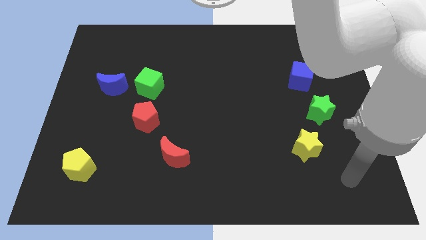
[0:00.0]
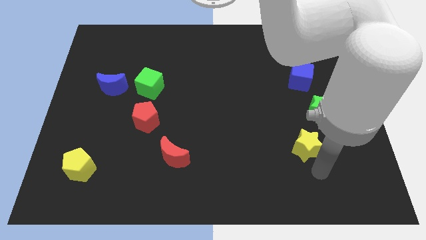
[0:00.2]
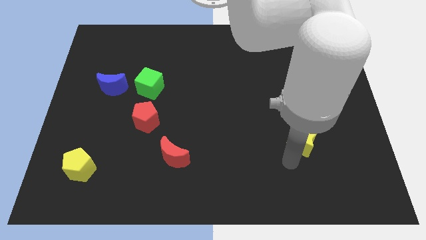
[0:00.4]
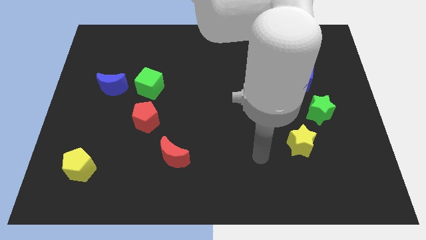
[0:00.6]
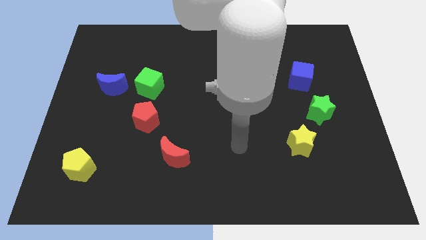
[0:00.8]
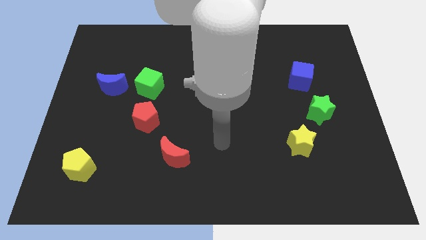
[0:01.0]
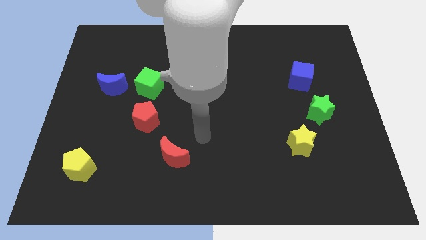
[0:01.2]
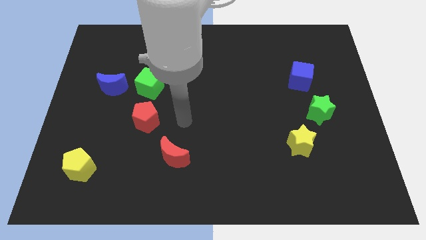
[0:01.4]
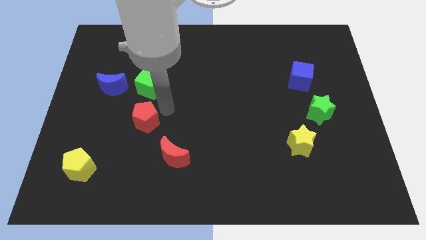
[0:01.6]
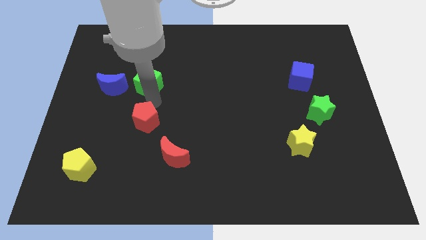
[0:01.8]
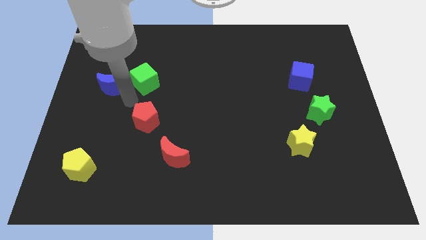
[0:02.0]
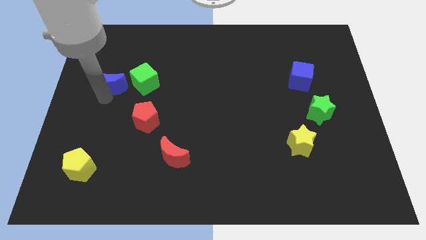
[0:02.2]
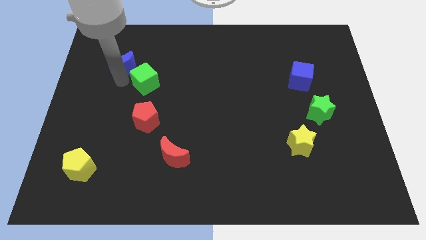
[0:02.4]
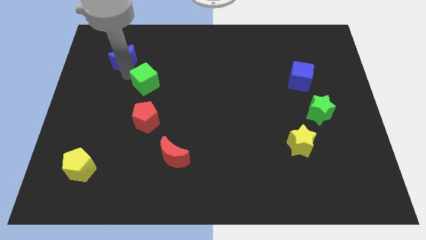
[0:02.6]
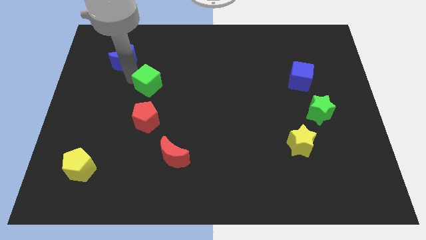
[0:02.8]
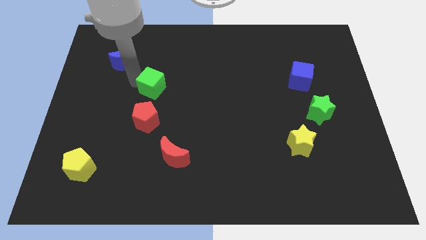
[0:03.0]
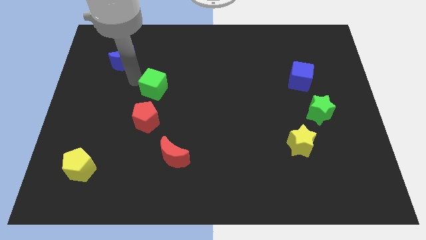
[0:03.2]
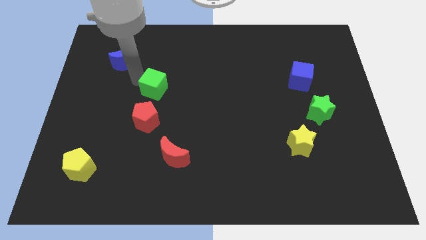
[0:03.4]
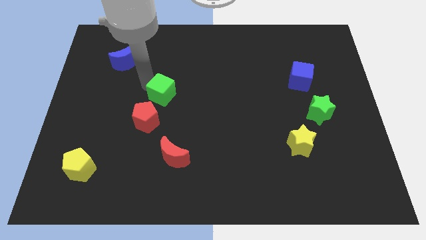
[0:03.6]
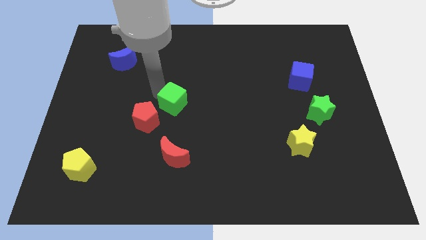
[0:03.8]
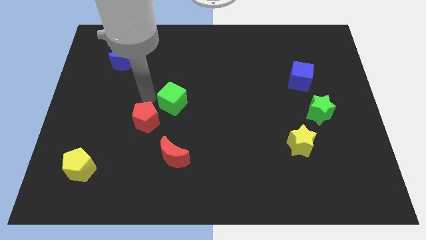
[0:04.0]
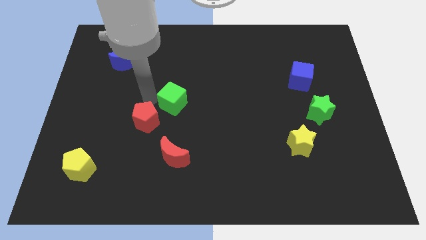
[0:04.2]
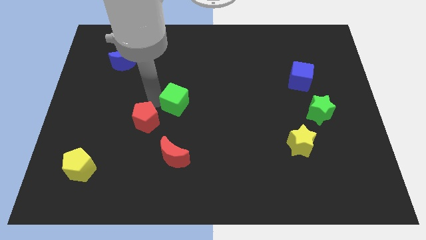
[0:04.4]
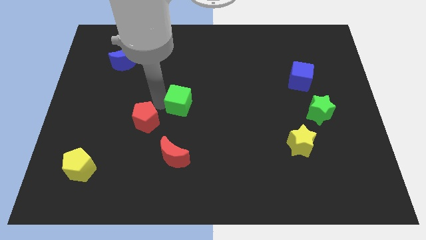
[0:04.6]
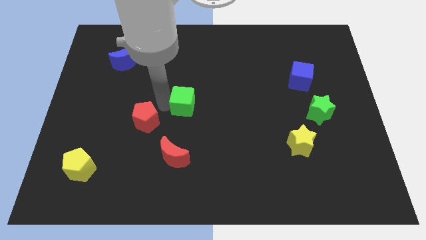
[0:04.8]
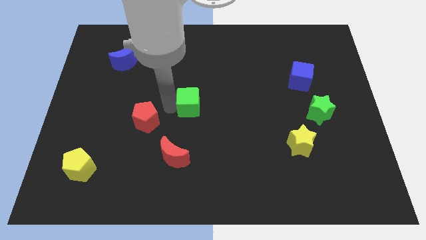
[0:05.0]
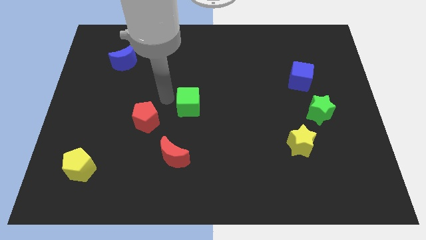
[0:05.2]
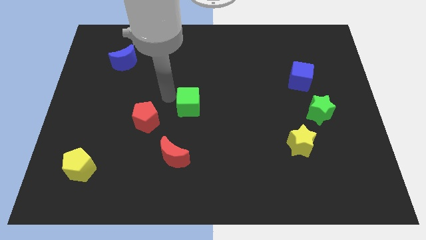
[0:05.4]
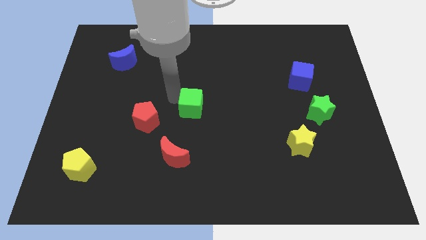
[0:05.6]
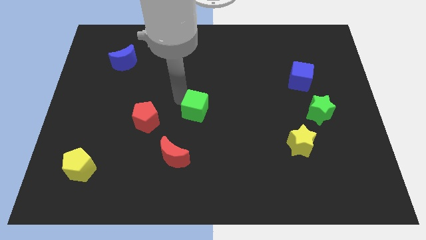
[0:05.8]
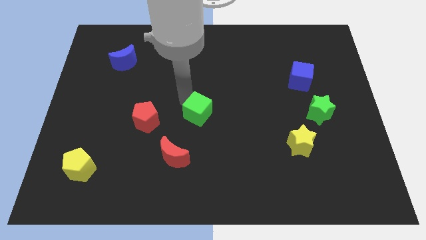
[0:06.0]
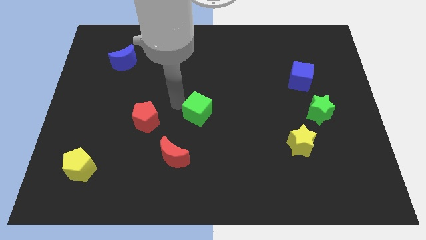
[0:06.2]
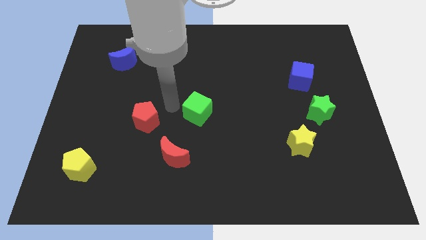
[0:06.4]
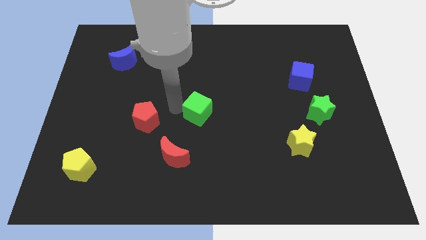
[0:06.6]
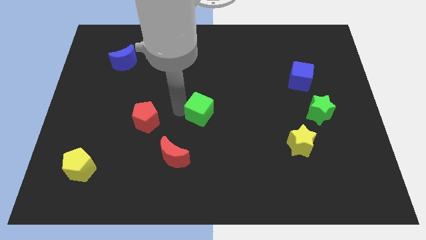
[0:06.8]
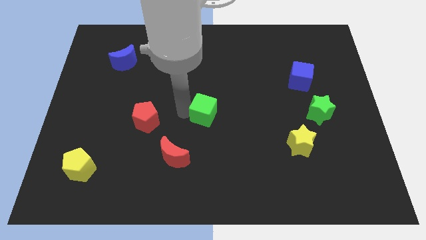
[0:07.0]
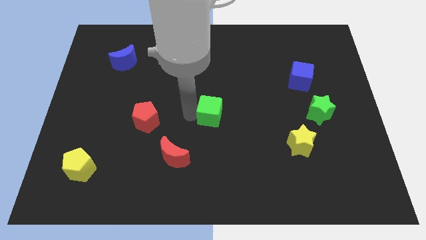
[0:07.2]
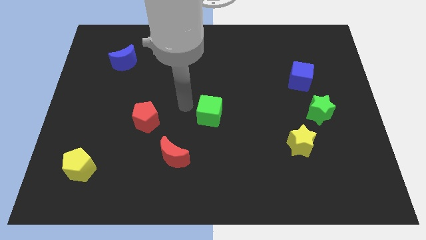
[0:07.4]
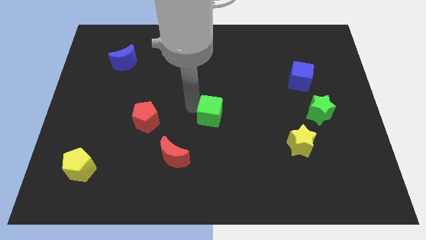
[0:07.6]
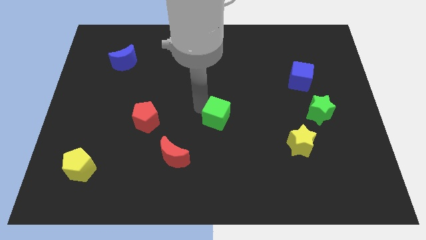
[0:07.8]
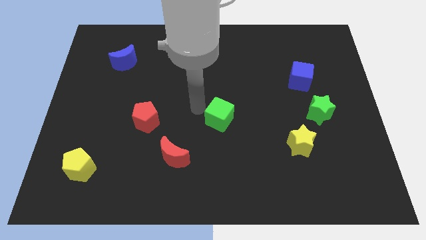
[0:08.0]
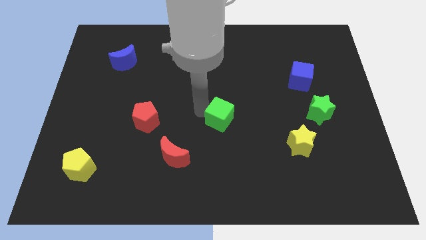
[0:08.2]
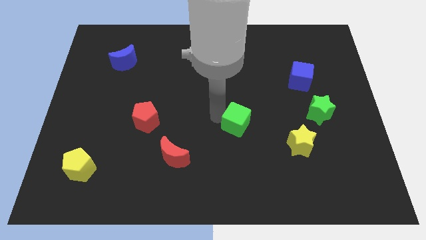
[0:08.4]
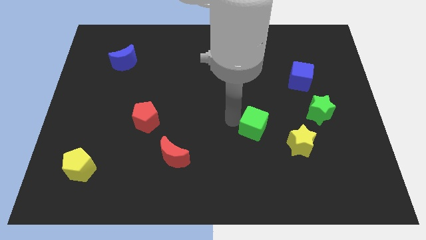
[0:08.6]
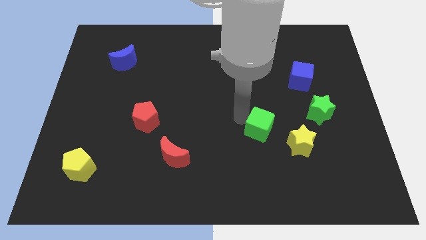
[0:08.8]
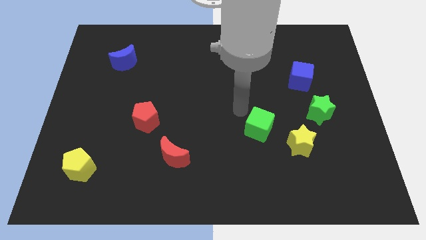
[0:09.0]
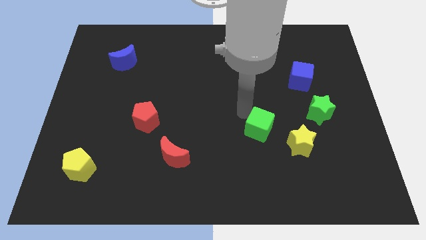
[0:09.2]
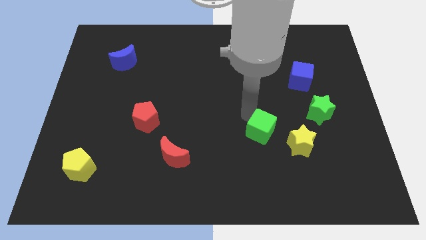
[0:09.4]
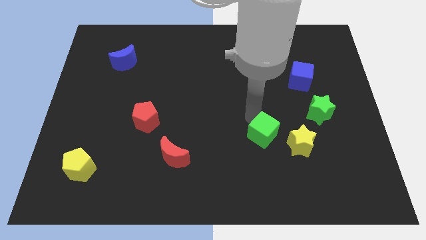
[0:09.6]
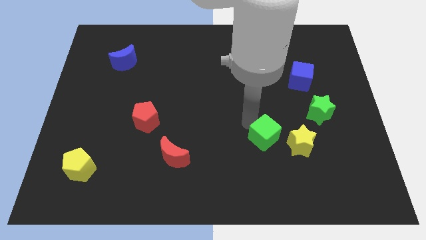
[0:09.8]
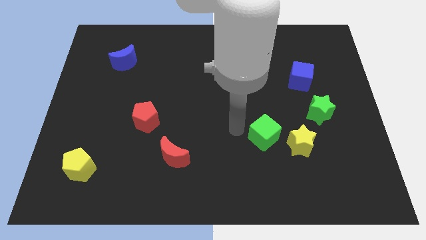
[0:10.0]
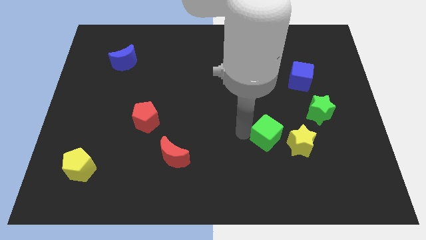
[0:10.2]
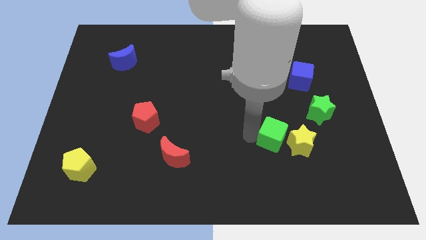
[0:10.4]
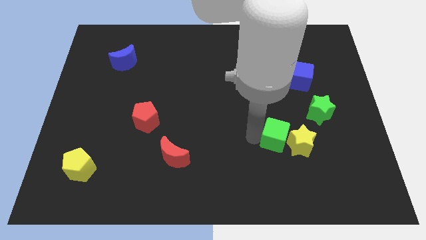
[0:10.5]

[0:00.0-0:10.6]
put the green cube close to the yellow star

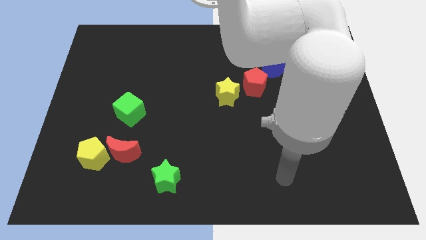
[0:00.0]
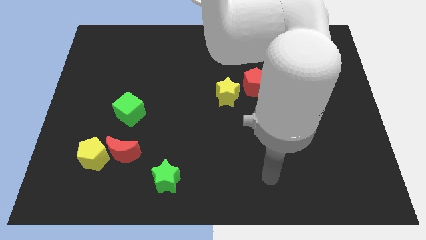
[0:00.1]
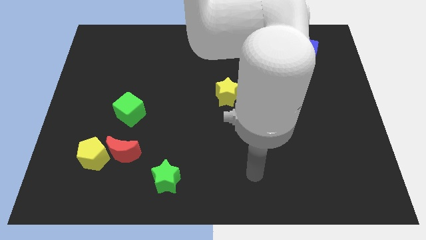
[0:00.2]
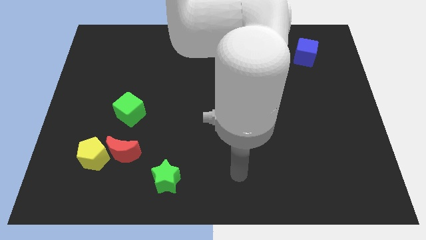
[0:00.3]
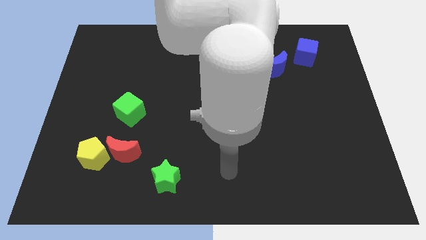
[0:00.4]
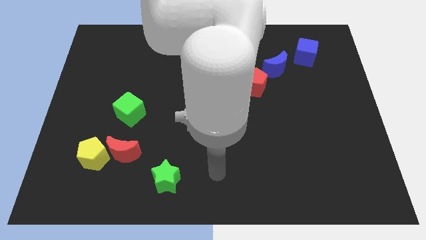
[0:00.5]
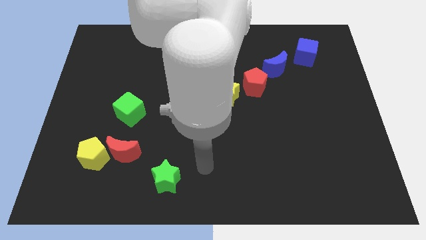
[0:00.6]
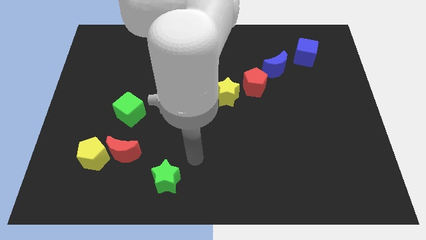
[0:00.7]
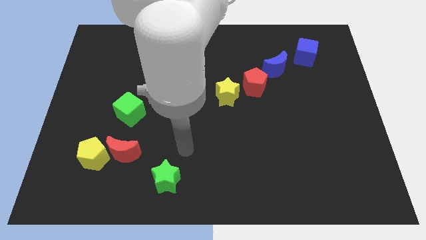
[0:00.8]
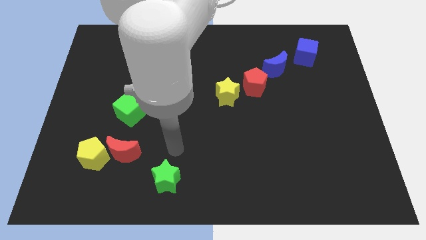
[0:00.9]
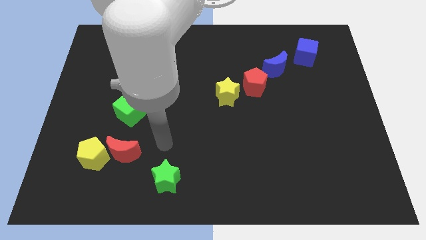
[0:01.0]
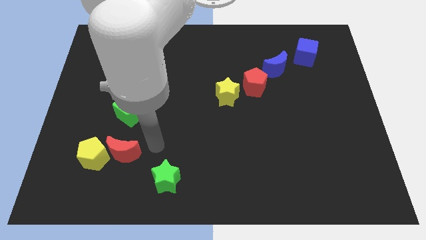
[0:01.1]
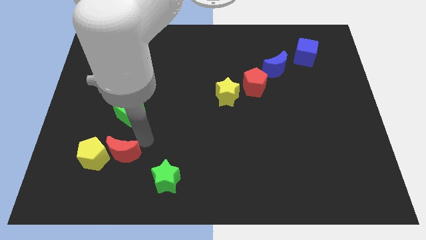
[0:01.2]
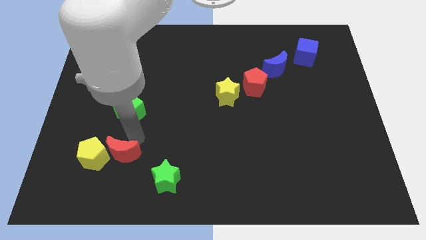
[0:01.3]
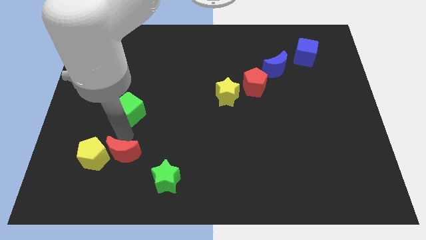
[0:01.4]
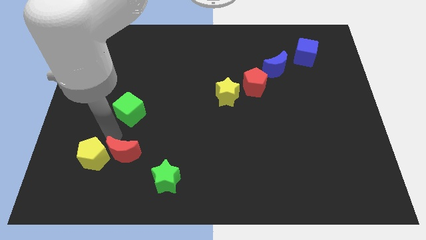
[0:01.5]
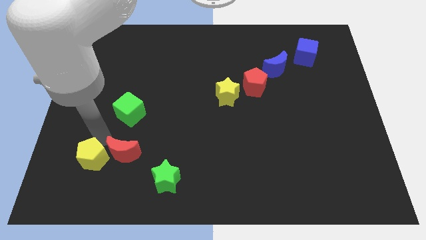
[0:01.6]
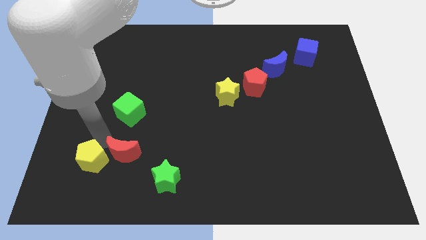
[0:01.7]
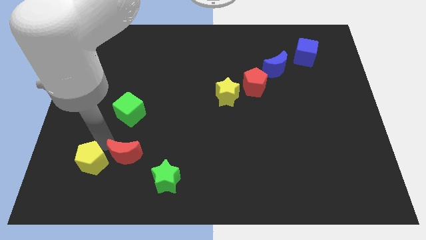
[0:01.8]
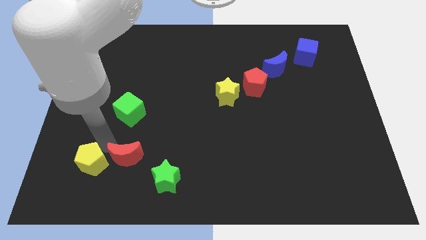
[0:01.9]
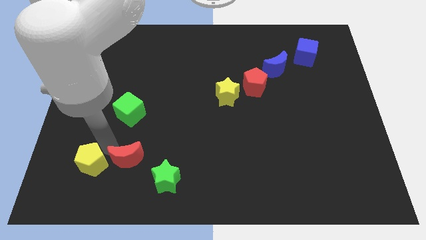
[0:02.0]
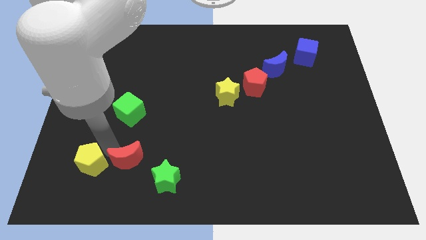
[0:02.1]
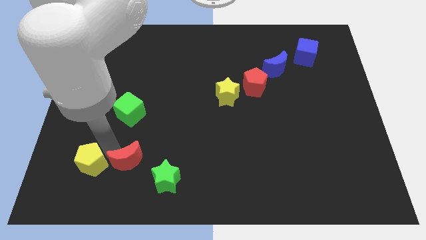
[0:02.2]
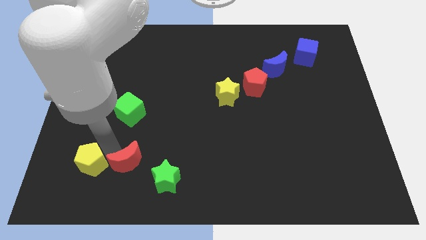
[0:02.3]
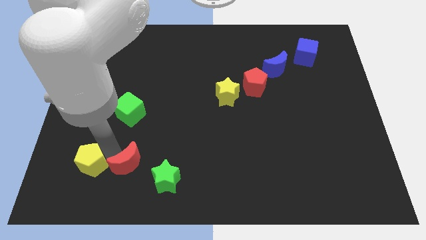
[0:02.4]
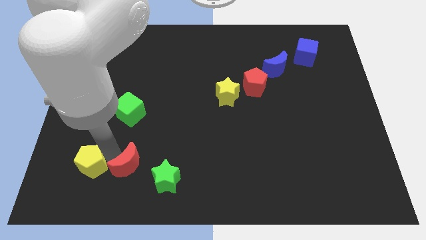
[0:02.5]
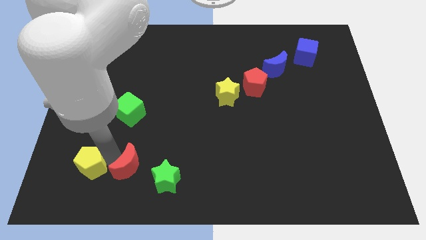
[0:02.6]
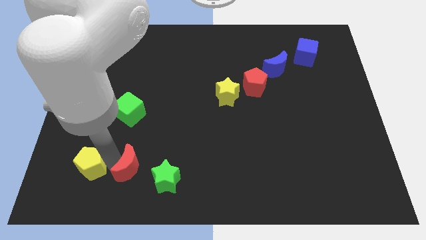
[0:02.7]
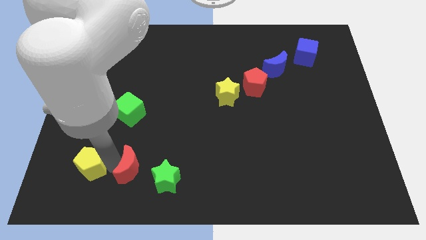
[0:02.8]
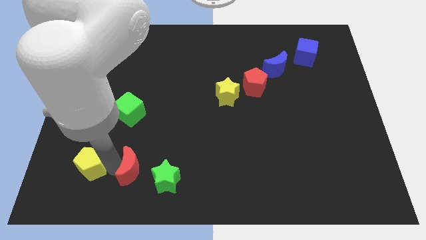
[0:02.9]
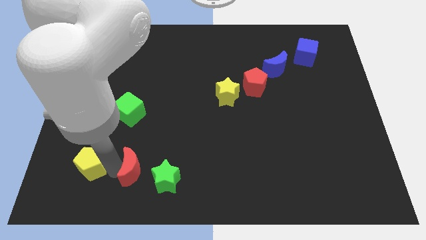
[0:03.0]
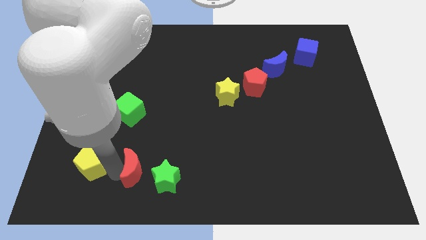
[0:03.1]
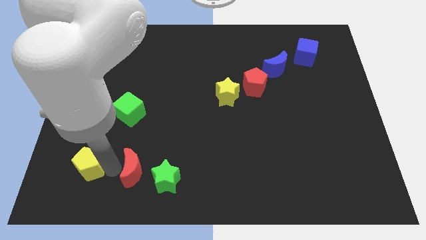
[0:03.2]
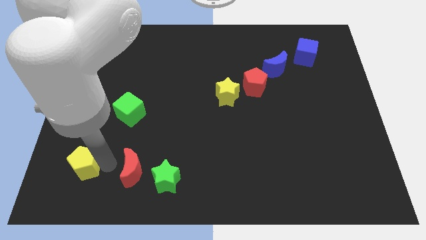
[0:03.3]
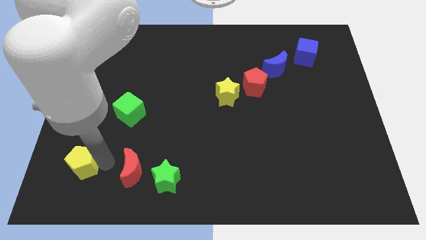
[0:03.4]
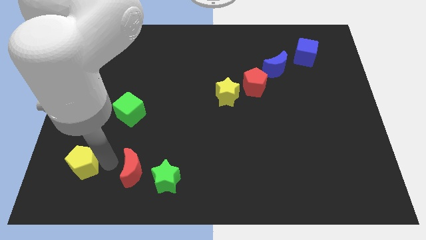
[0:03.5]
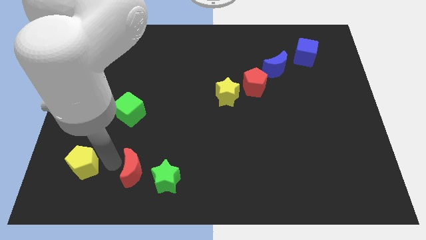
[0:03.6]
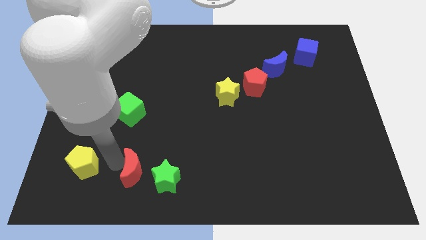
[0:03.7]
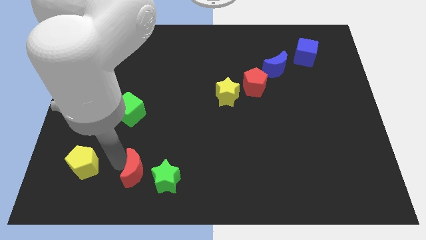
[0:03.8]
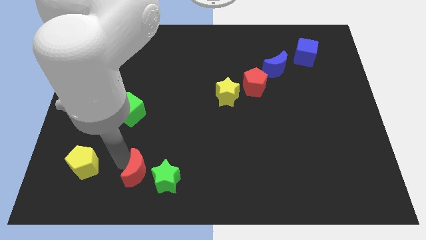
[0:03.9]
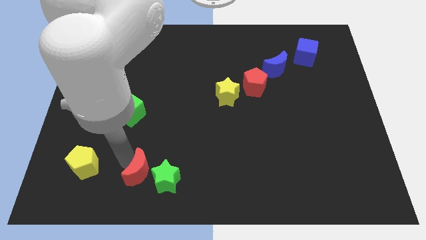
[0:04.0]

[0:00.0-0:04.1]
move the red moon to the green star
